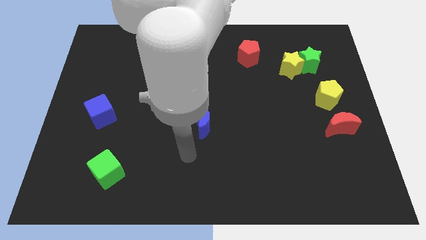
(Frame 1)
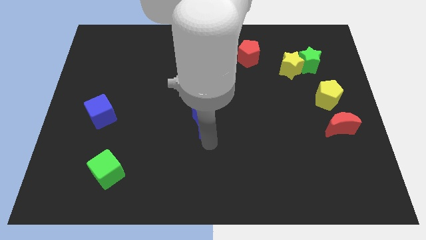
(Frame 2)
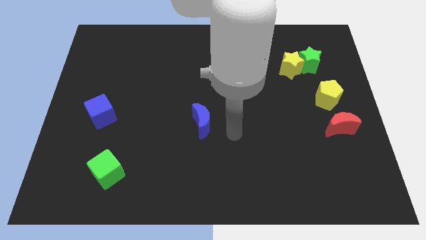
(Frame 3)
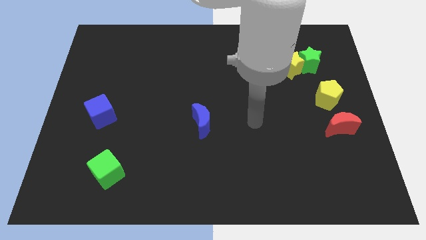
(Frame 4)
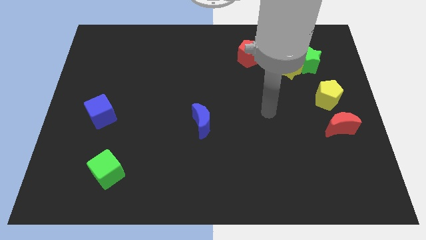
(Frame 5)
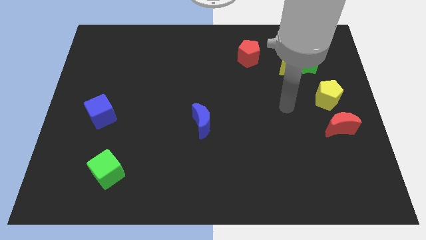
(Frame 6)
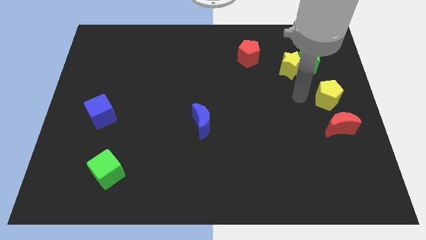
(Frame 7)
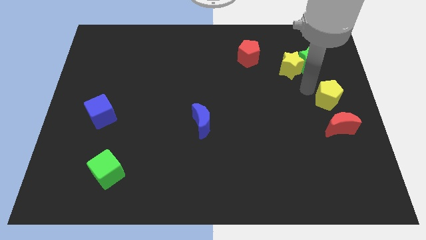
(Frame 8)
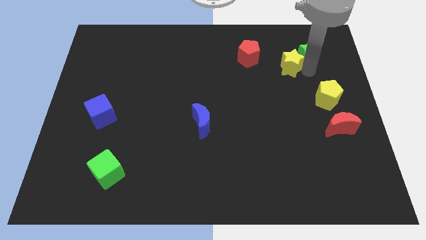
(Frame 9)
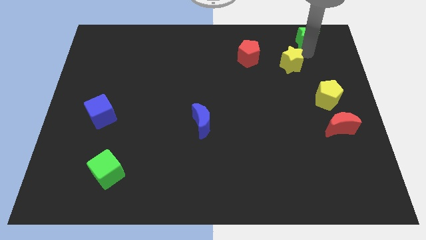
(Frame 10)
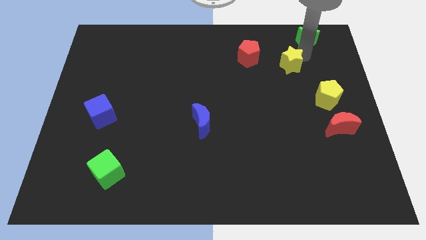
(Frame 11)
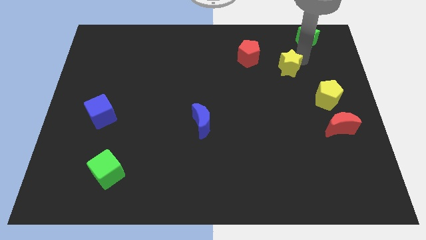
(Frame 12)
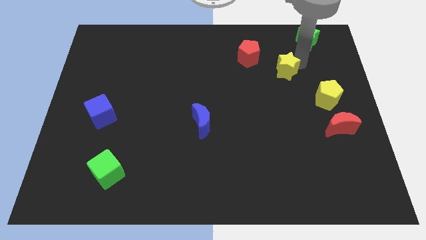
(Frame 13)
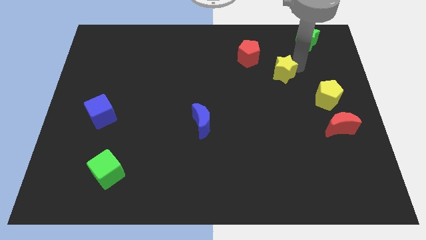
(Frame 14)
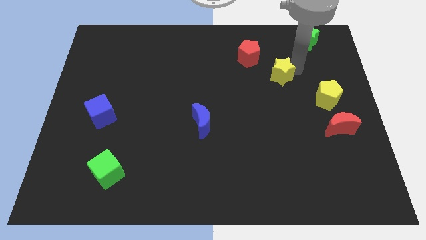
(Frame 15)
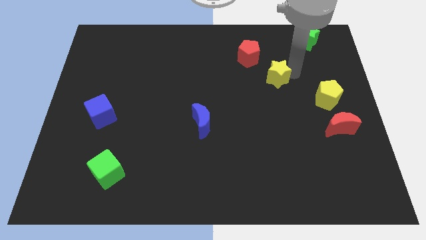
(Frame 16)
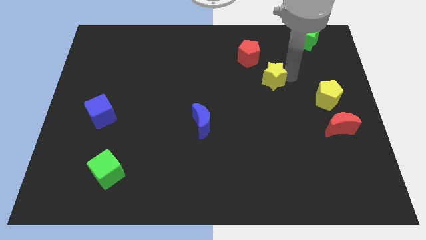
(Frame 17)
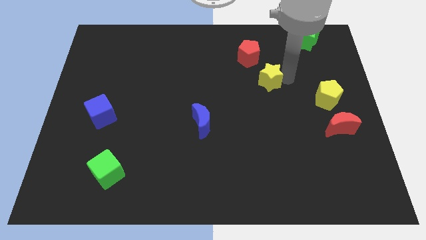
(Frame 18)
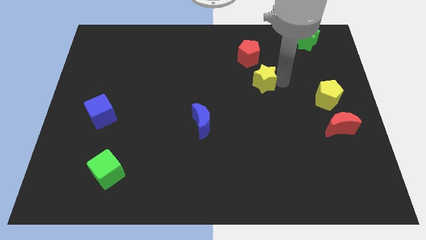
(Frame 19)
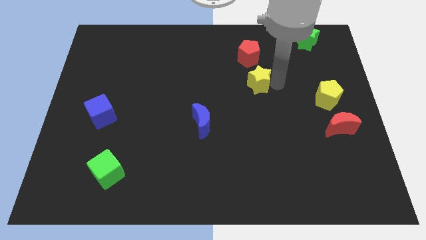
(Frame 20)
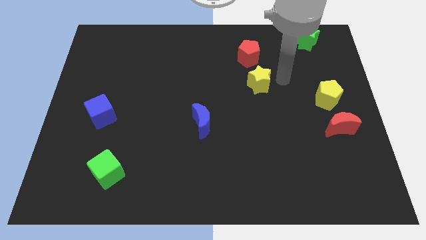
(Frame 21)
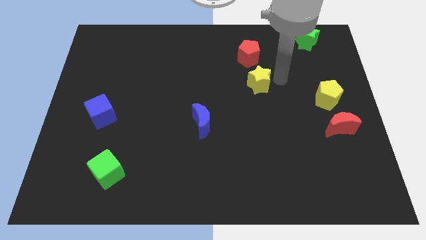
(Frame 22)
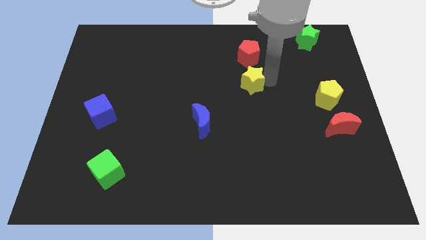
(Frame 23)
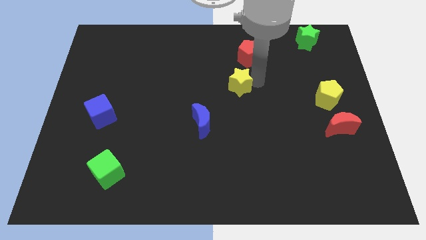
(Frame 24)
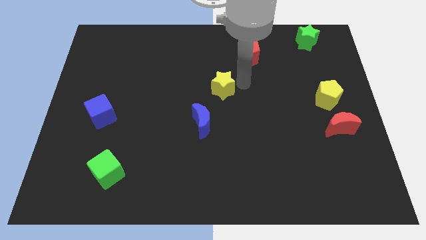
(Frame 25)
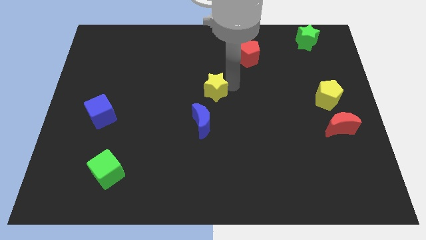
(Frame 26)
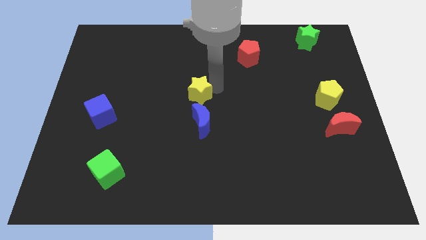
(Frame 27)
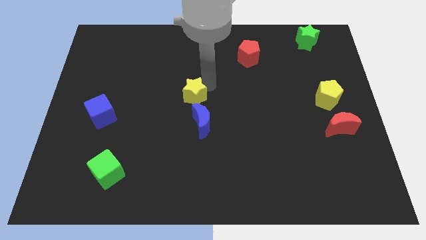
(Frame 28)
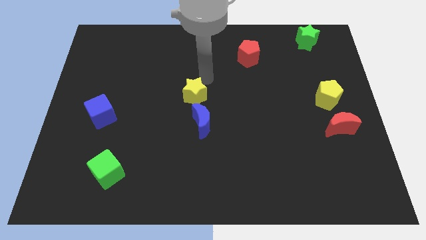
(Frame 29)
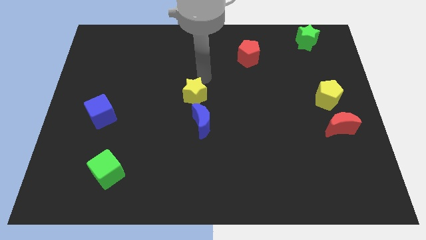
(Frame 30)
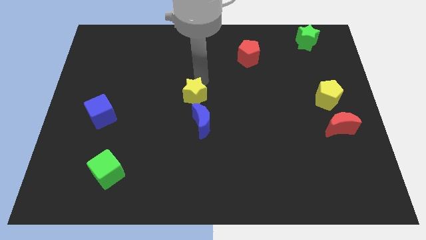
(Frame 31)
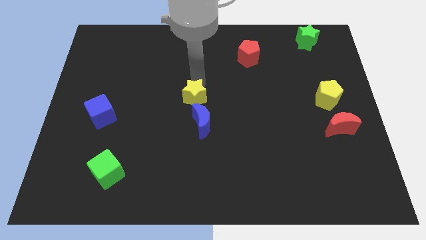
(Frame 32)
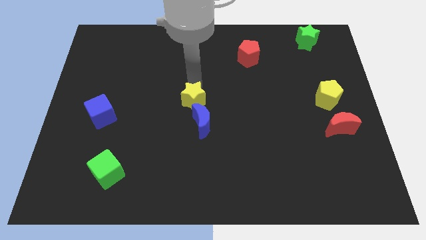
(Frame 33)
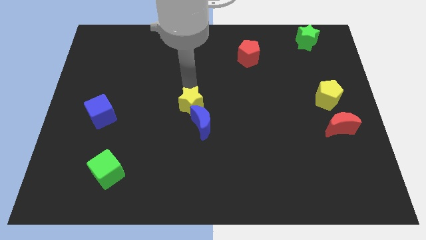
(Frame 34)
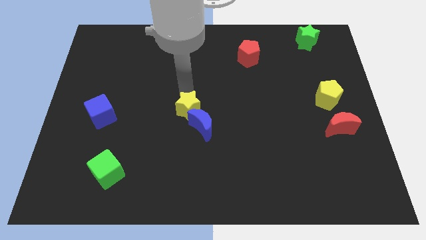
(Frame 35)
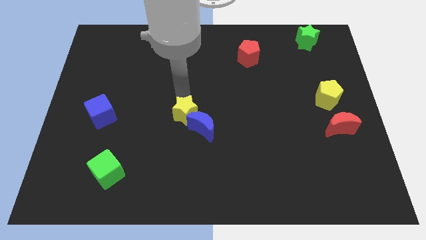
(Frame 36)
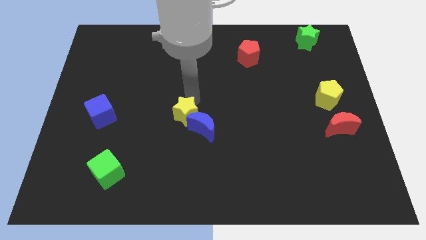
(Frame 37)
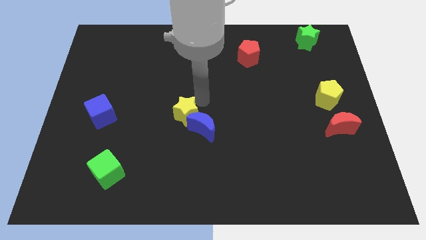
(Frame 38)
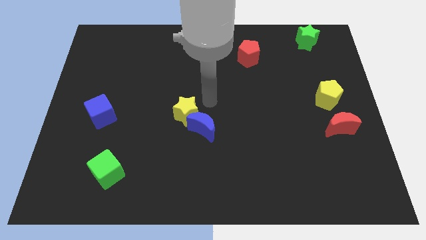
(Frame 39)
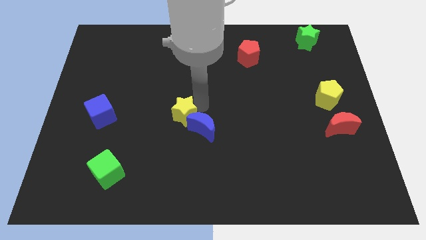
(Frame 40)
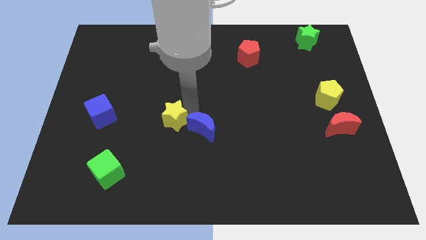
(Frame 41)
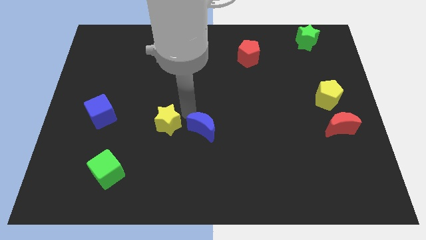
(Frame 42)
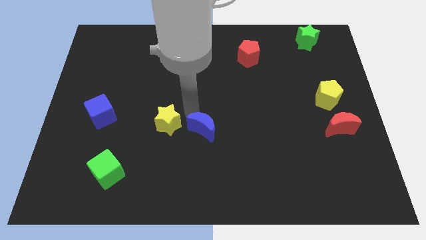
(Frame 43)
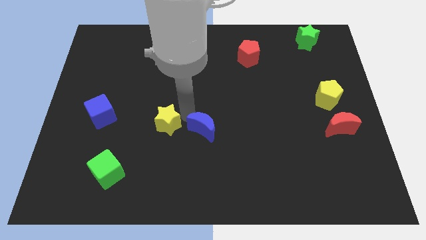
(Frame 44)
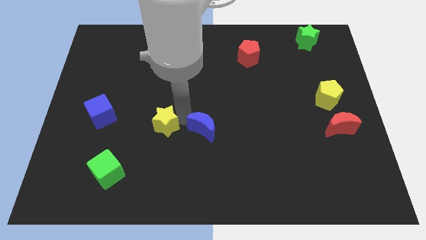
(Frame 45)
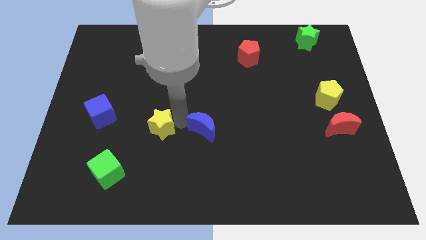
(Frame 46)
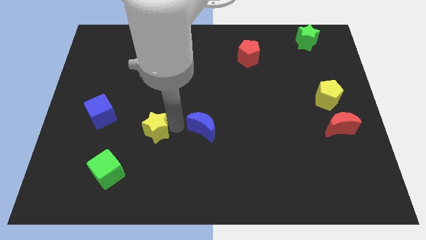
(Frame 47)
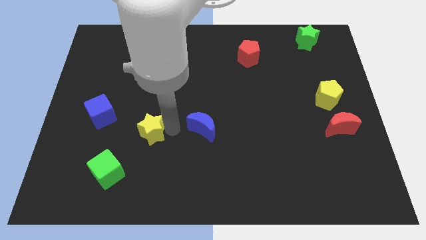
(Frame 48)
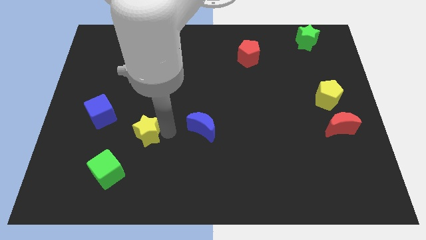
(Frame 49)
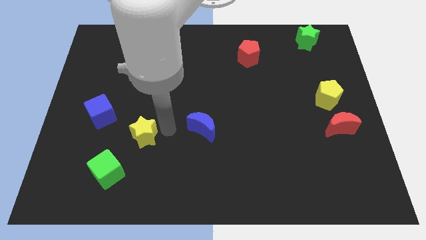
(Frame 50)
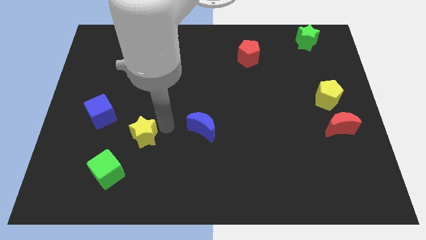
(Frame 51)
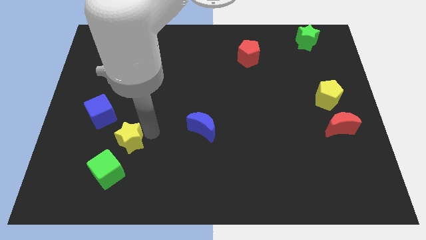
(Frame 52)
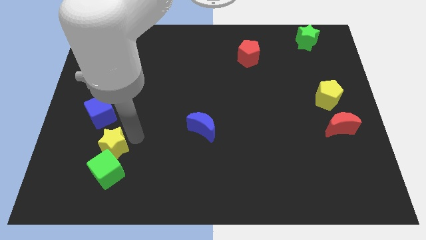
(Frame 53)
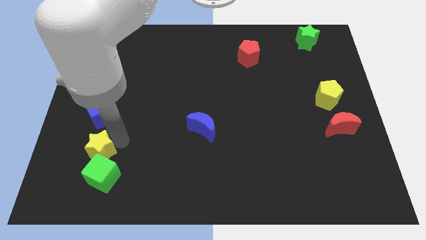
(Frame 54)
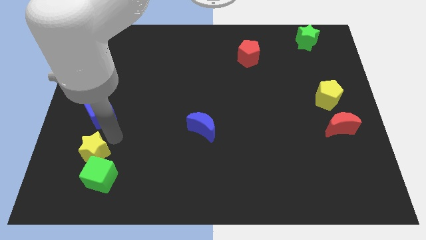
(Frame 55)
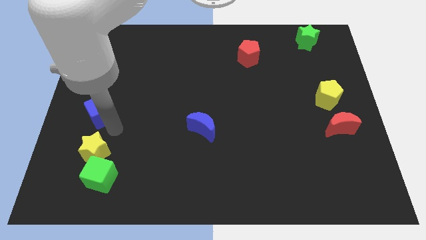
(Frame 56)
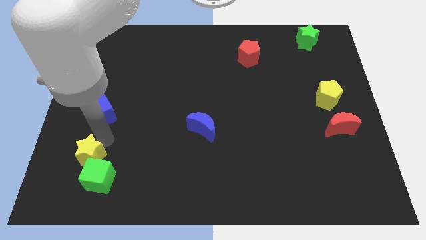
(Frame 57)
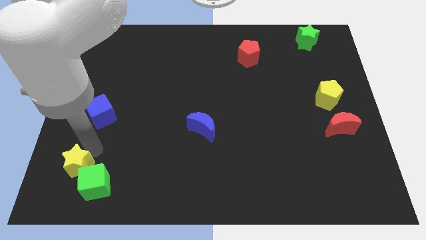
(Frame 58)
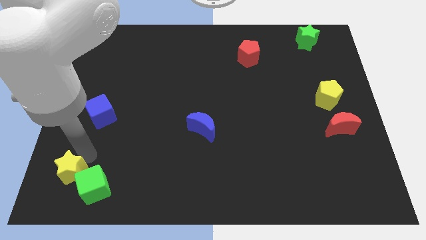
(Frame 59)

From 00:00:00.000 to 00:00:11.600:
push the yellow star to the lower left corner

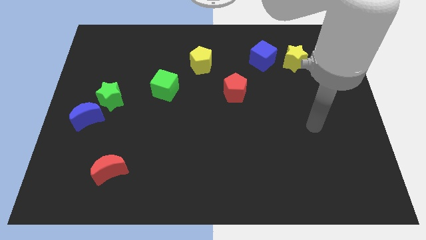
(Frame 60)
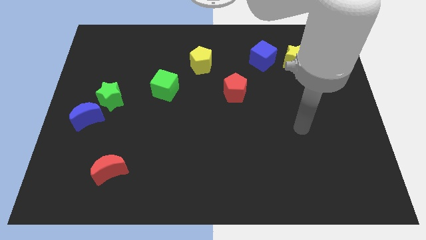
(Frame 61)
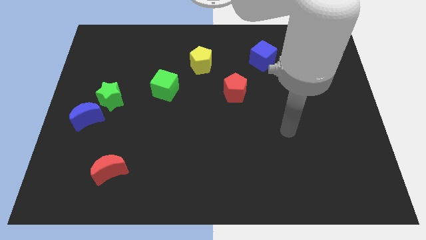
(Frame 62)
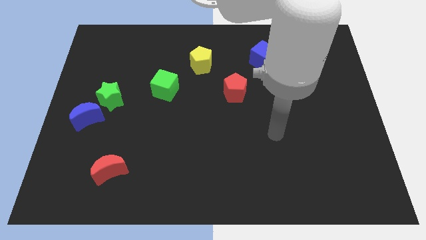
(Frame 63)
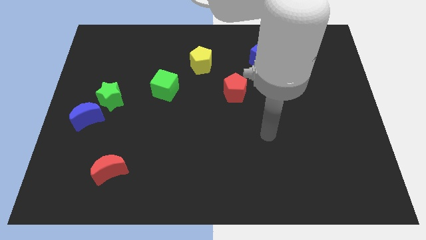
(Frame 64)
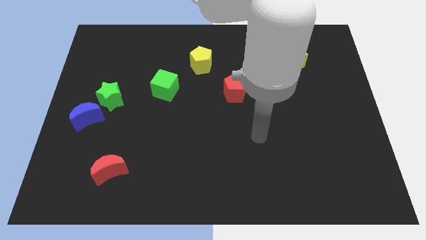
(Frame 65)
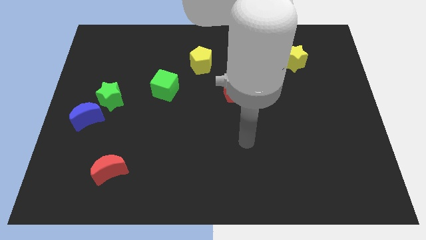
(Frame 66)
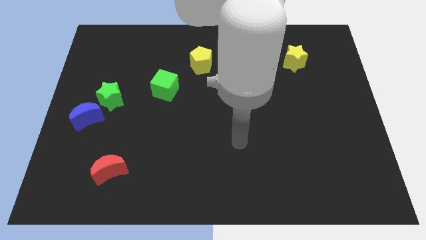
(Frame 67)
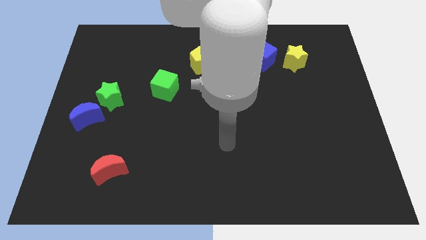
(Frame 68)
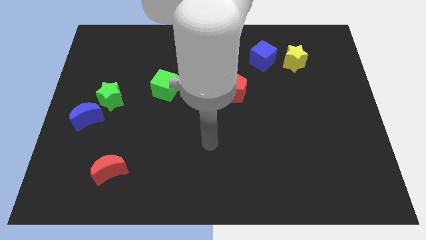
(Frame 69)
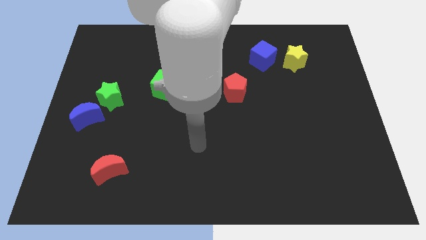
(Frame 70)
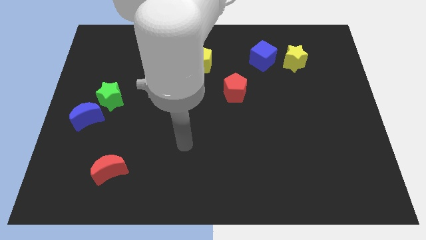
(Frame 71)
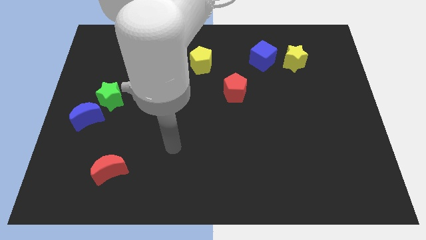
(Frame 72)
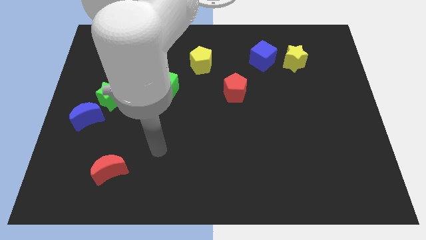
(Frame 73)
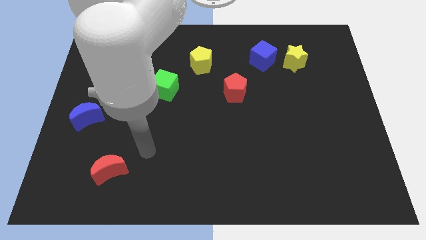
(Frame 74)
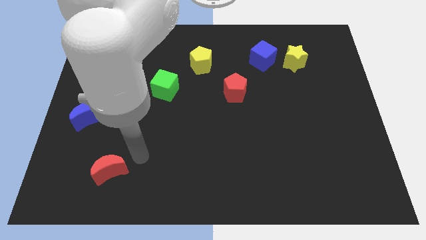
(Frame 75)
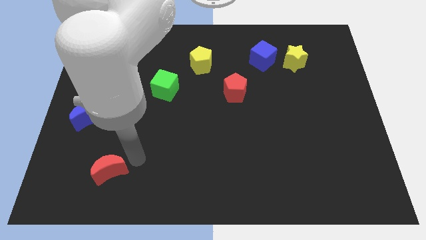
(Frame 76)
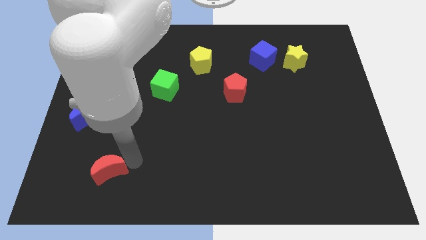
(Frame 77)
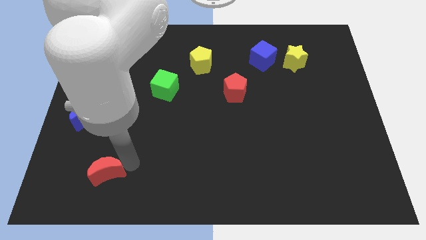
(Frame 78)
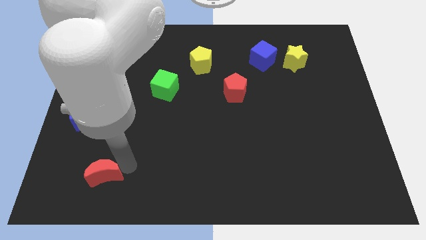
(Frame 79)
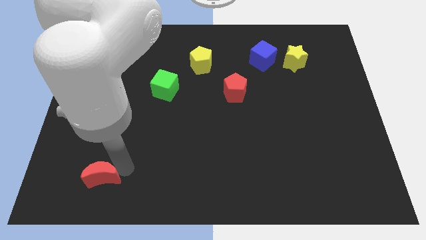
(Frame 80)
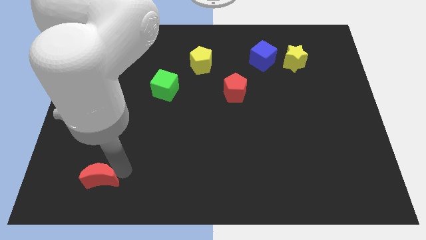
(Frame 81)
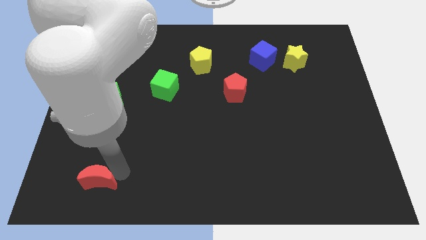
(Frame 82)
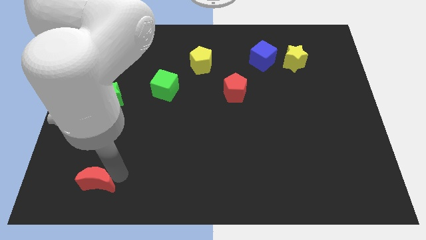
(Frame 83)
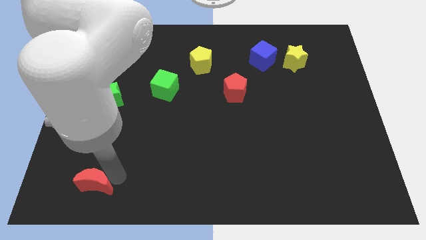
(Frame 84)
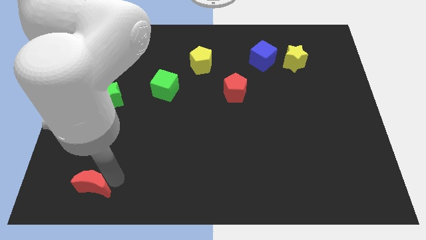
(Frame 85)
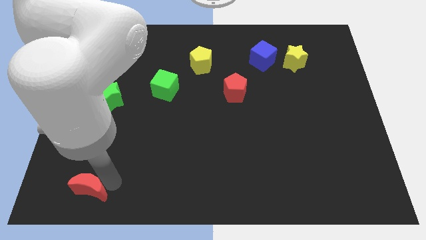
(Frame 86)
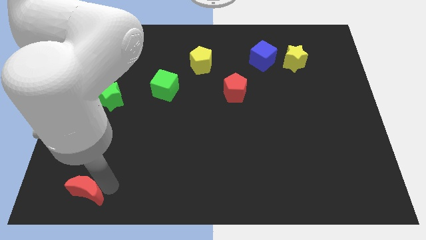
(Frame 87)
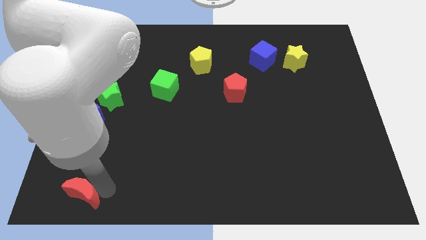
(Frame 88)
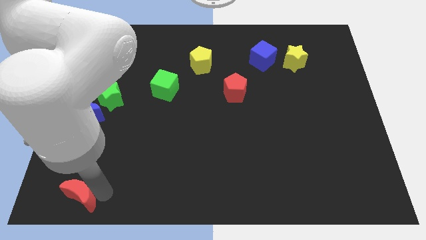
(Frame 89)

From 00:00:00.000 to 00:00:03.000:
move the red moon to the bottom left of the board
